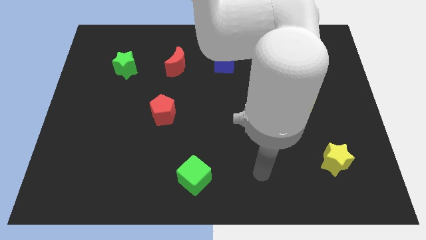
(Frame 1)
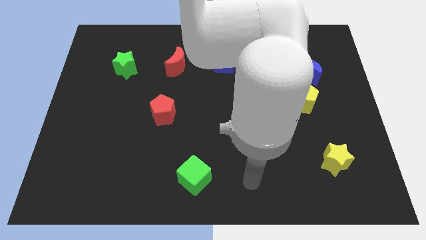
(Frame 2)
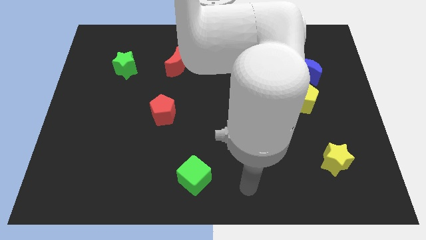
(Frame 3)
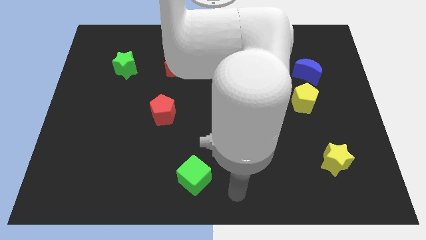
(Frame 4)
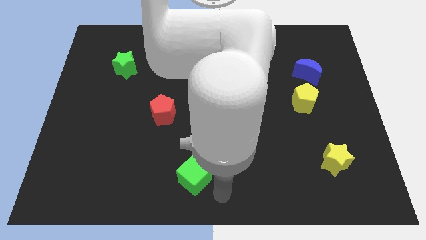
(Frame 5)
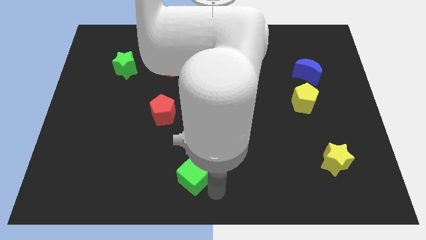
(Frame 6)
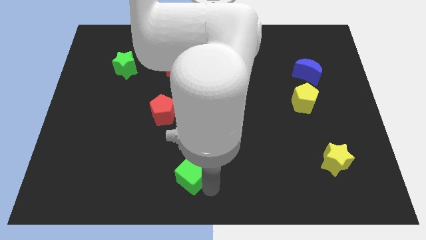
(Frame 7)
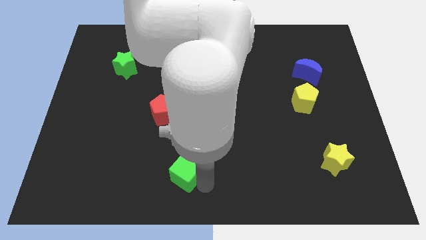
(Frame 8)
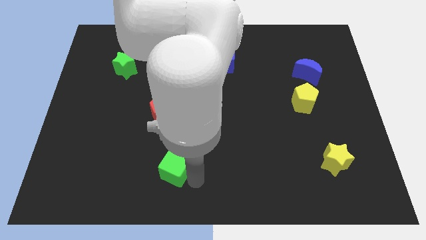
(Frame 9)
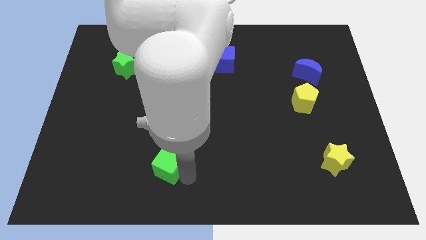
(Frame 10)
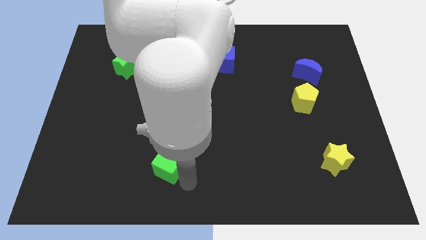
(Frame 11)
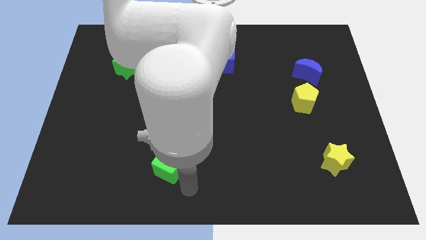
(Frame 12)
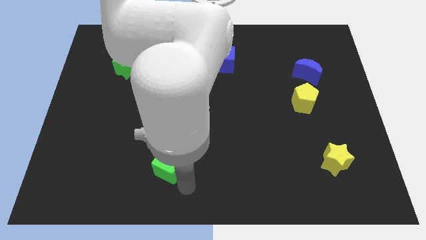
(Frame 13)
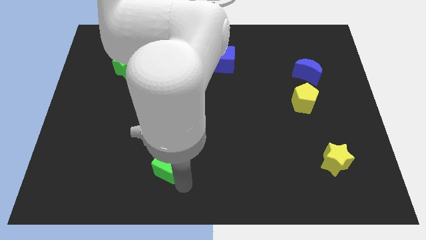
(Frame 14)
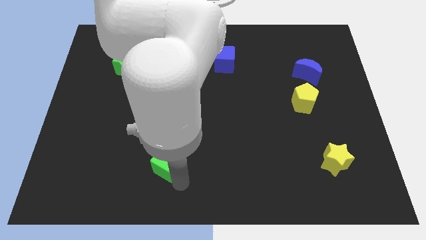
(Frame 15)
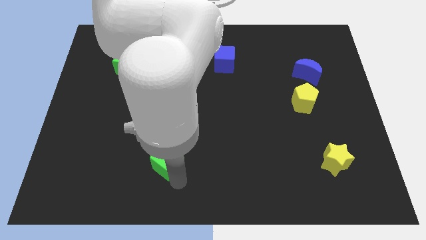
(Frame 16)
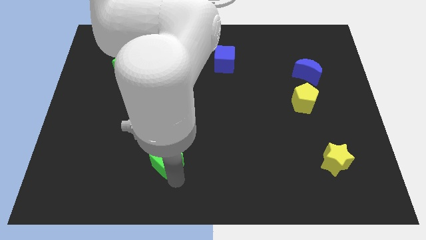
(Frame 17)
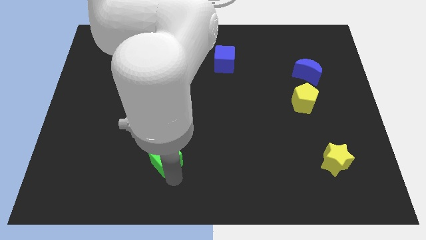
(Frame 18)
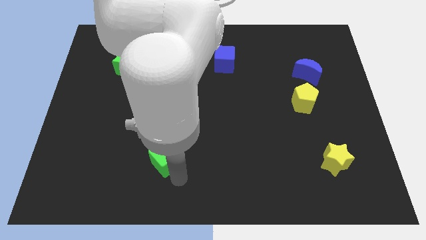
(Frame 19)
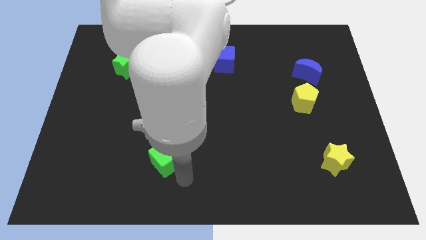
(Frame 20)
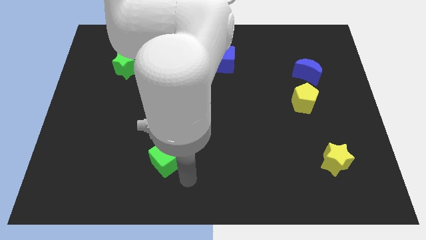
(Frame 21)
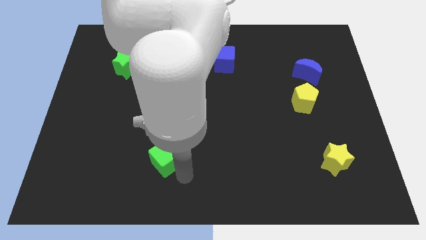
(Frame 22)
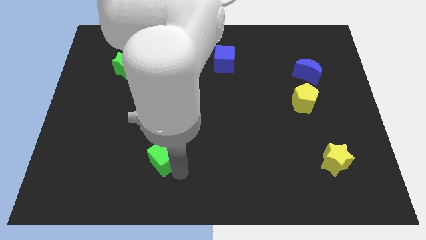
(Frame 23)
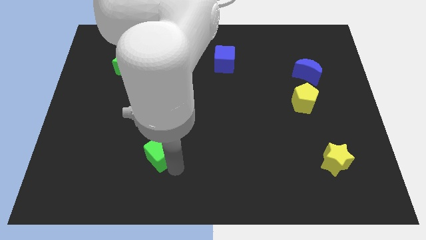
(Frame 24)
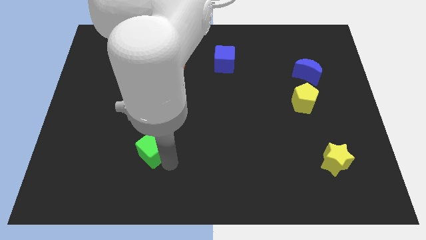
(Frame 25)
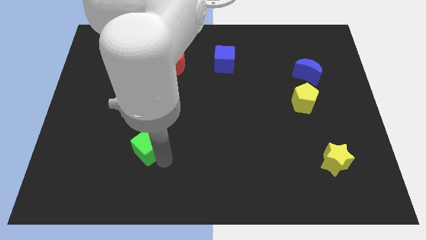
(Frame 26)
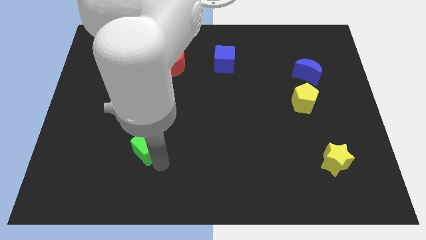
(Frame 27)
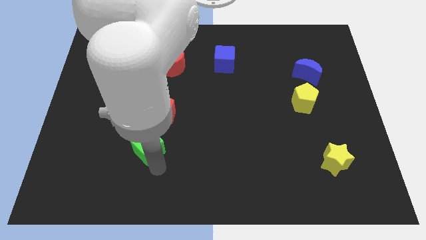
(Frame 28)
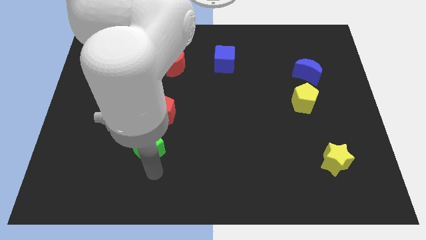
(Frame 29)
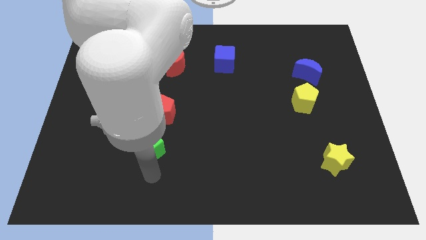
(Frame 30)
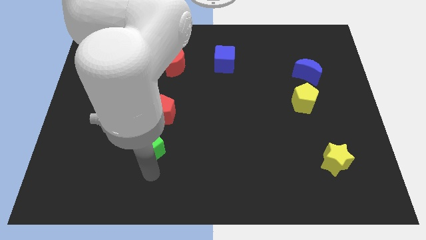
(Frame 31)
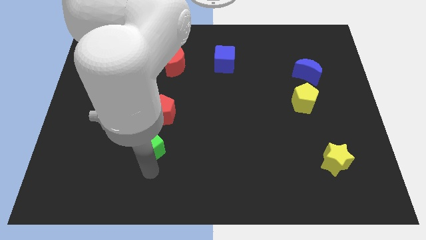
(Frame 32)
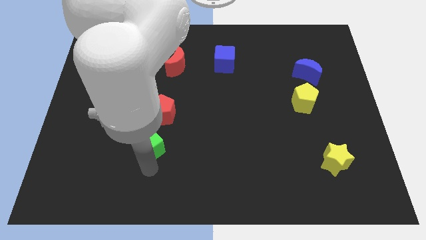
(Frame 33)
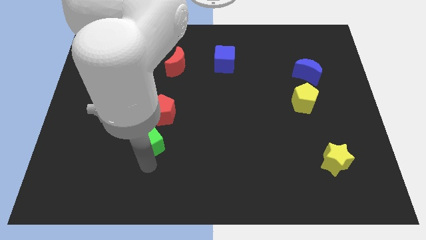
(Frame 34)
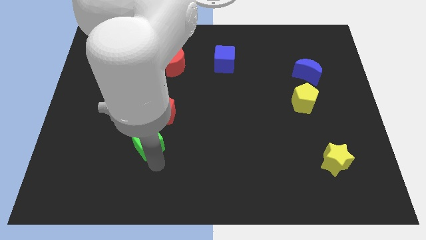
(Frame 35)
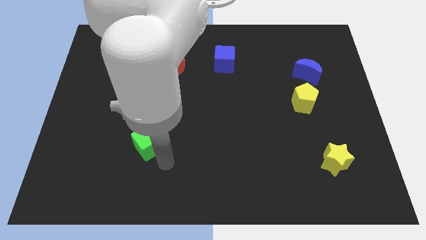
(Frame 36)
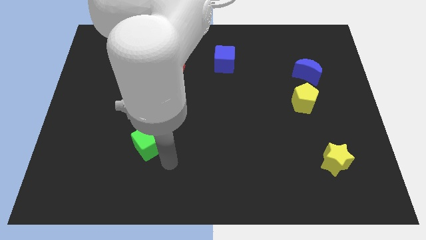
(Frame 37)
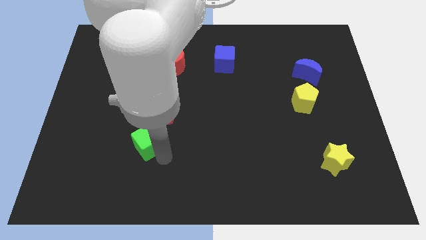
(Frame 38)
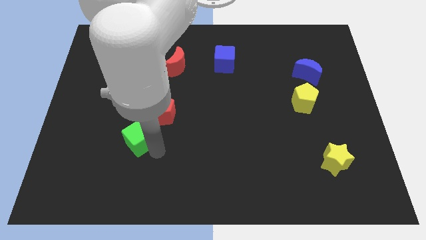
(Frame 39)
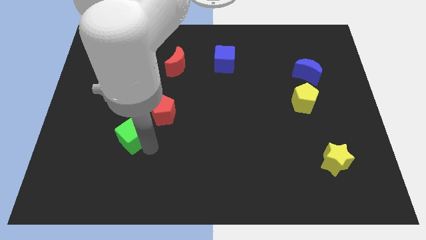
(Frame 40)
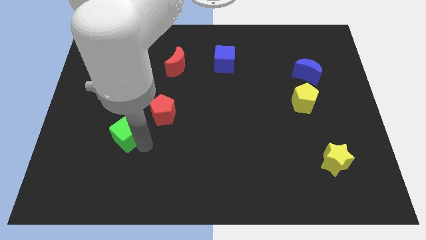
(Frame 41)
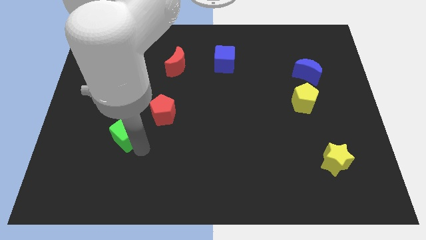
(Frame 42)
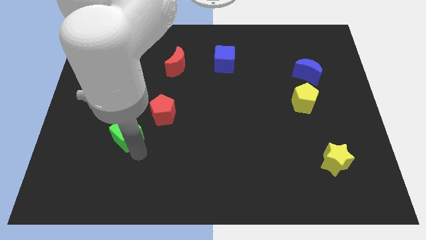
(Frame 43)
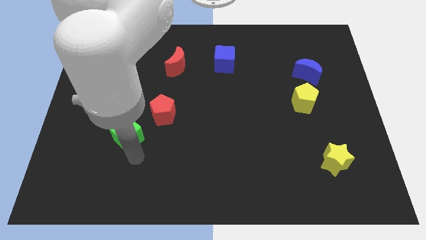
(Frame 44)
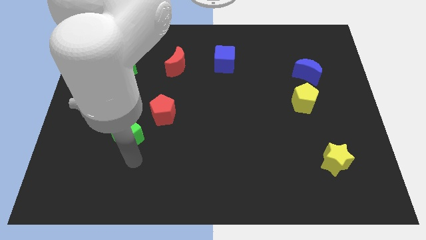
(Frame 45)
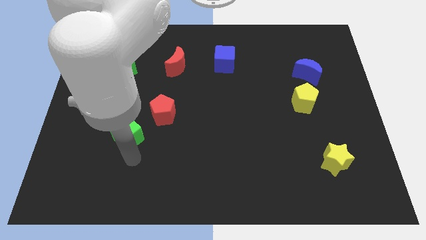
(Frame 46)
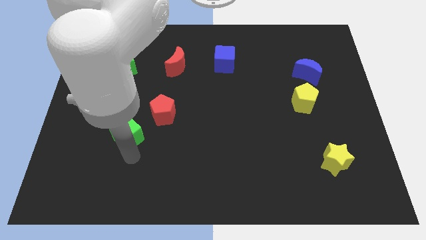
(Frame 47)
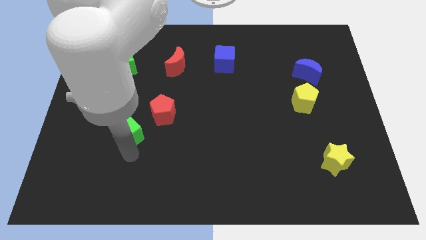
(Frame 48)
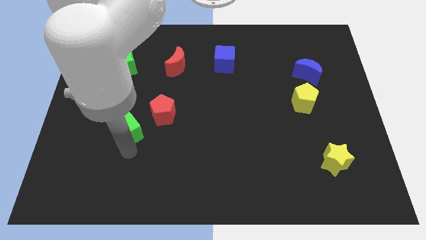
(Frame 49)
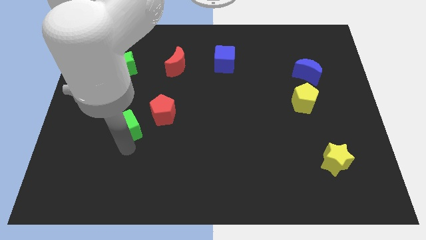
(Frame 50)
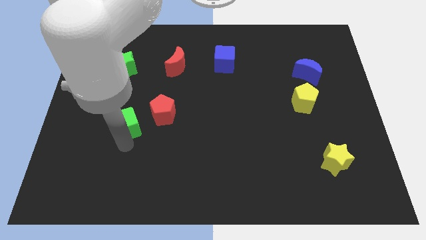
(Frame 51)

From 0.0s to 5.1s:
slide the green cube up and to the left

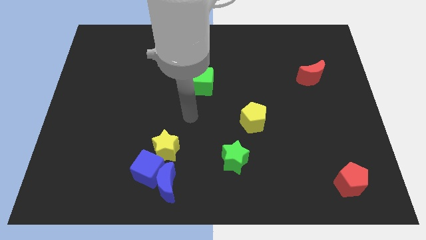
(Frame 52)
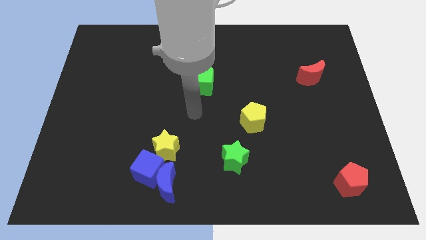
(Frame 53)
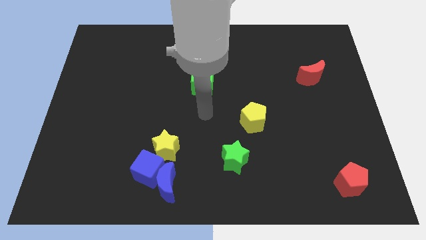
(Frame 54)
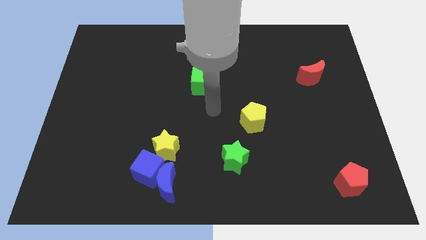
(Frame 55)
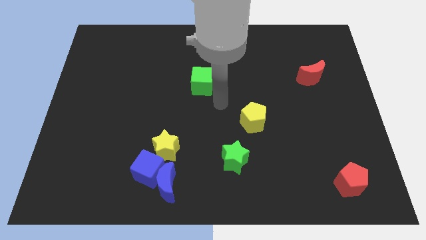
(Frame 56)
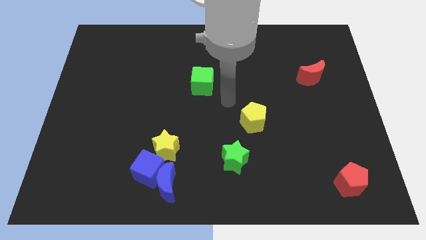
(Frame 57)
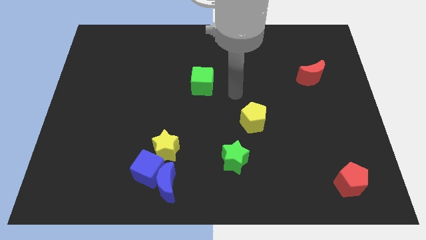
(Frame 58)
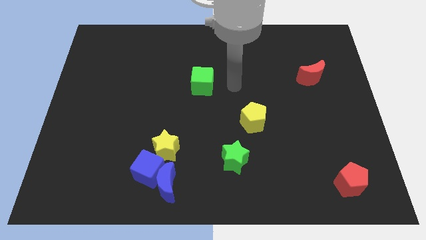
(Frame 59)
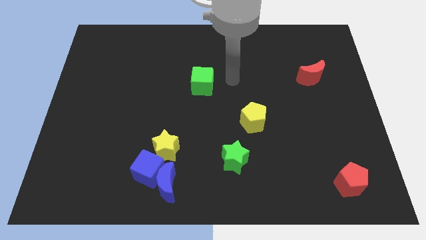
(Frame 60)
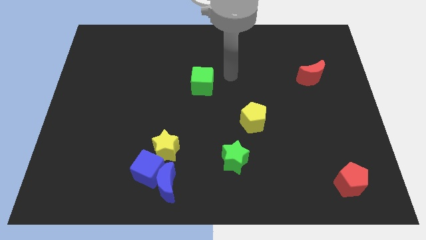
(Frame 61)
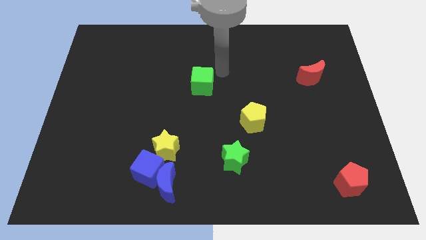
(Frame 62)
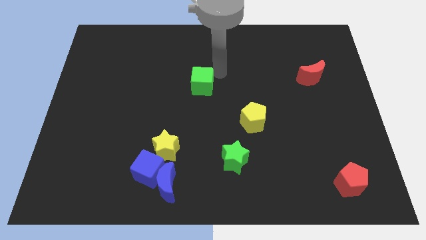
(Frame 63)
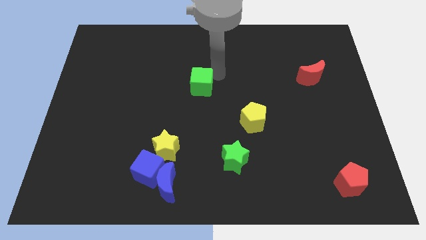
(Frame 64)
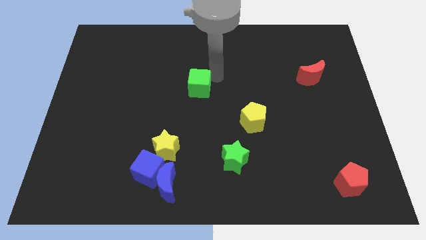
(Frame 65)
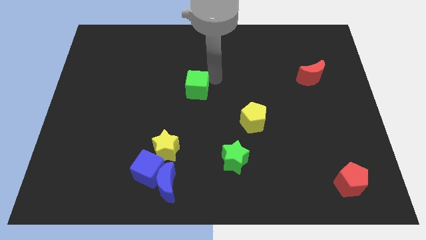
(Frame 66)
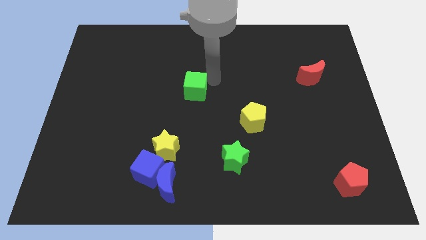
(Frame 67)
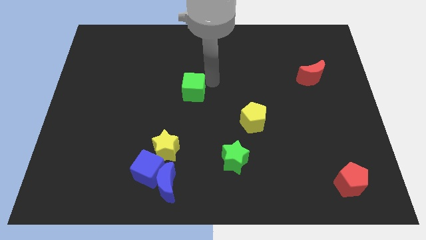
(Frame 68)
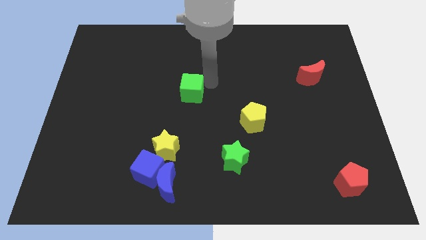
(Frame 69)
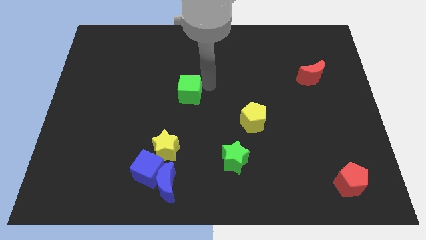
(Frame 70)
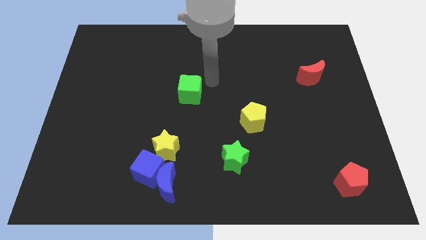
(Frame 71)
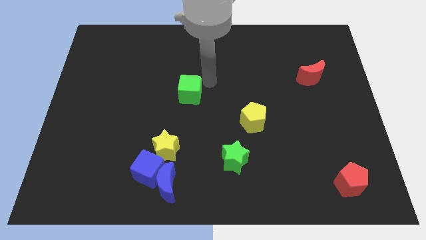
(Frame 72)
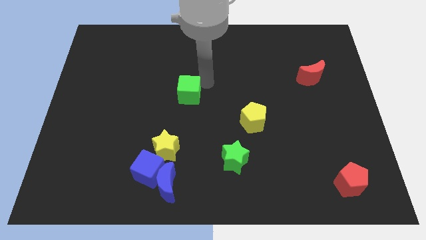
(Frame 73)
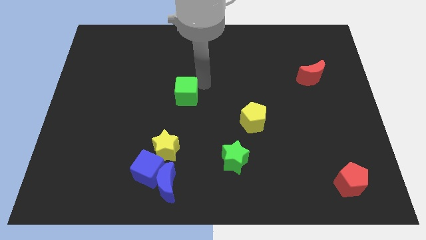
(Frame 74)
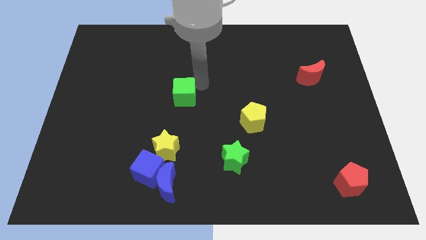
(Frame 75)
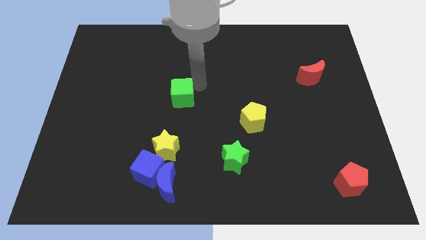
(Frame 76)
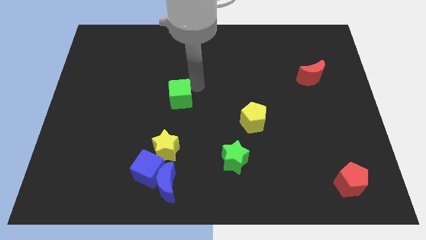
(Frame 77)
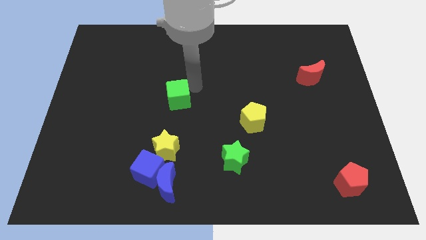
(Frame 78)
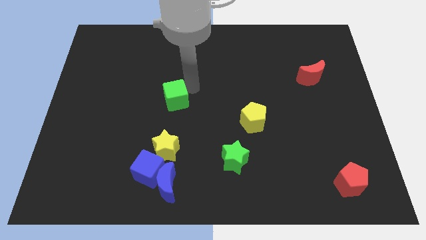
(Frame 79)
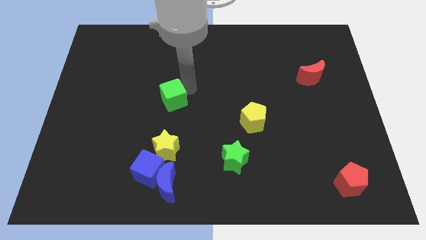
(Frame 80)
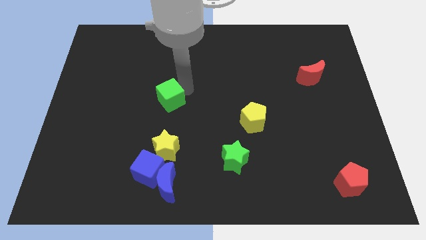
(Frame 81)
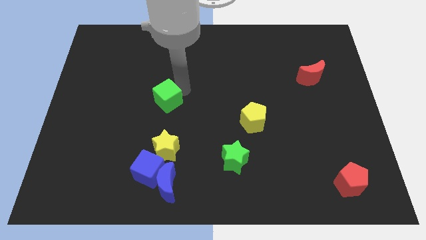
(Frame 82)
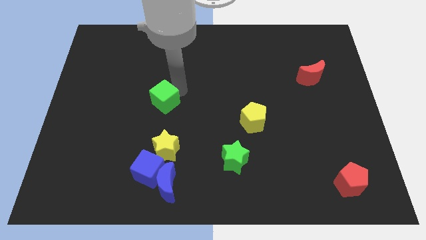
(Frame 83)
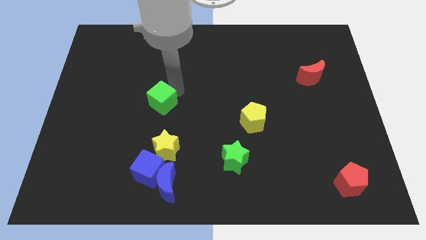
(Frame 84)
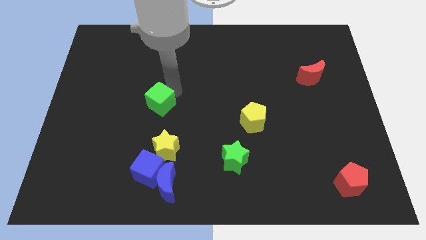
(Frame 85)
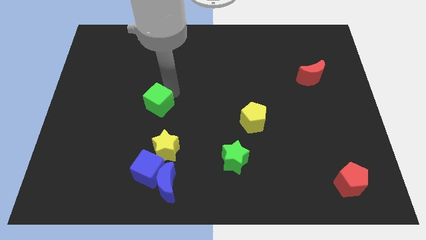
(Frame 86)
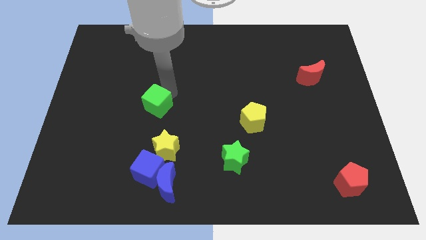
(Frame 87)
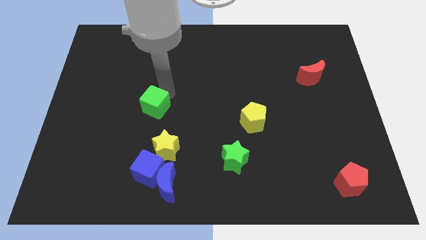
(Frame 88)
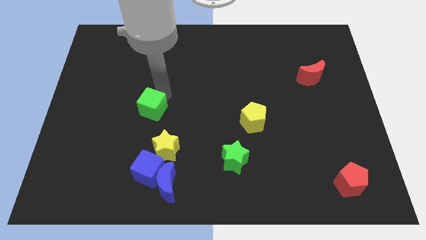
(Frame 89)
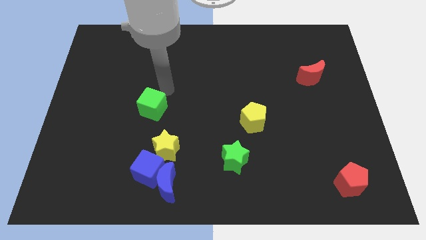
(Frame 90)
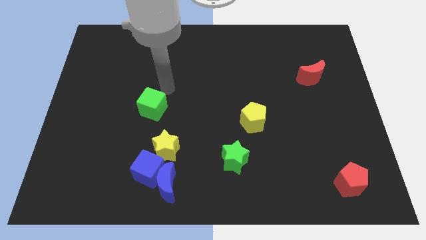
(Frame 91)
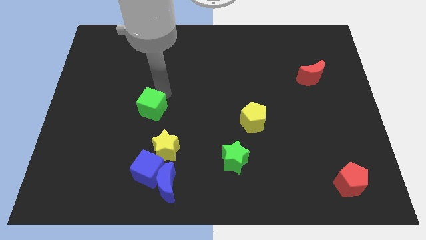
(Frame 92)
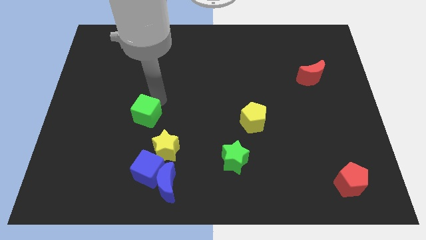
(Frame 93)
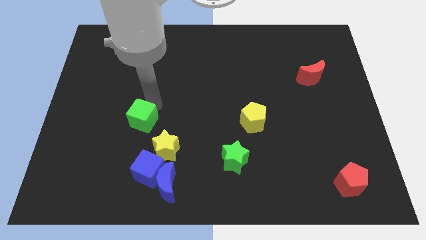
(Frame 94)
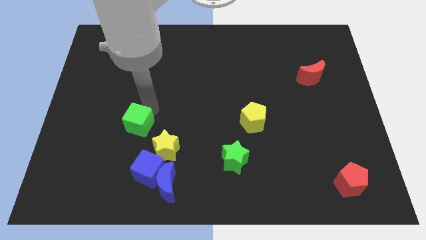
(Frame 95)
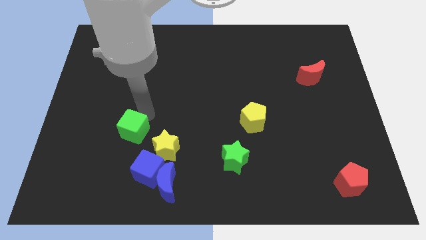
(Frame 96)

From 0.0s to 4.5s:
slide the green cube downwards and left
